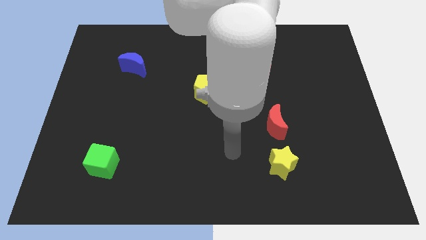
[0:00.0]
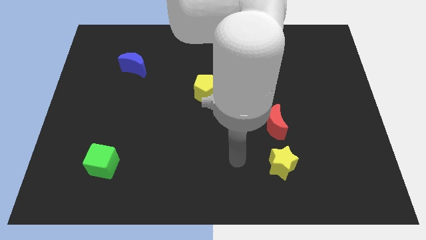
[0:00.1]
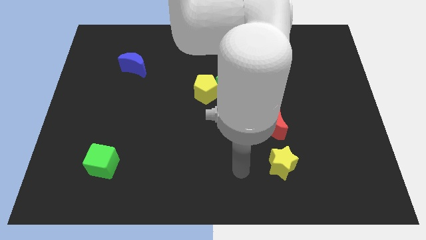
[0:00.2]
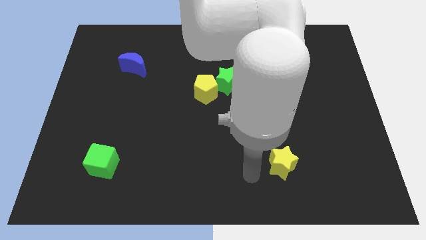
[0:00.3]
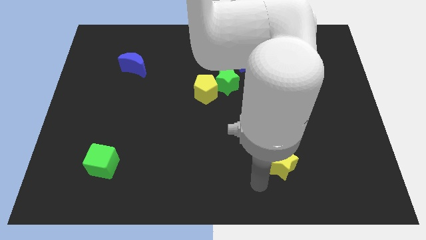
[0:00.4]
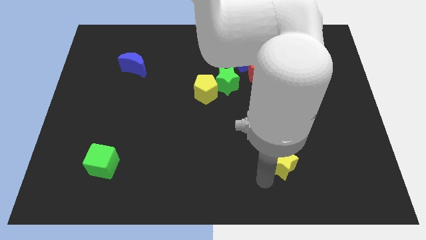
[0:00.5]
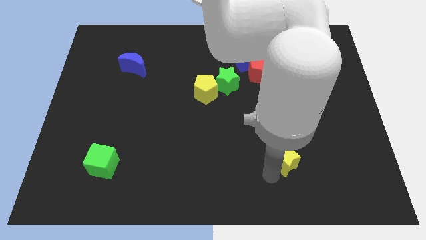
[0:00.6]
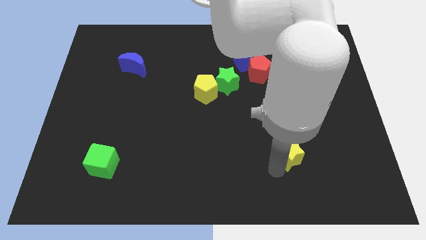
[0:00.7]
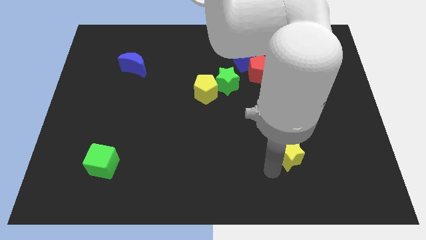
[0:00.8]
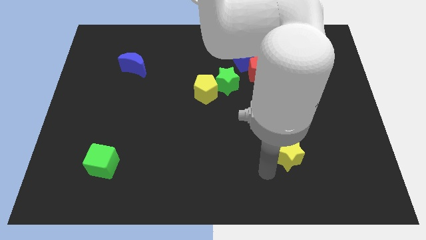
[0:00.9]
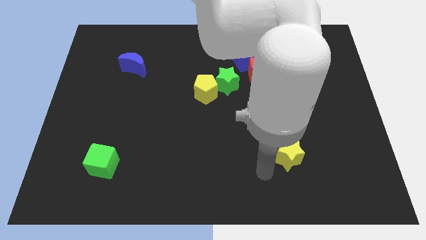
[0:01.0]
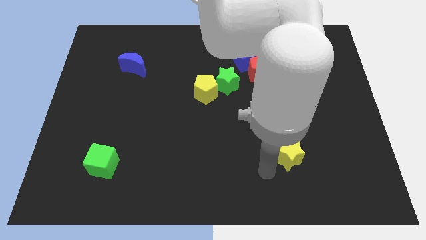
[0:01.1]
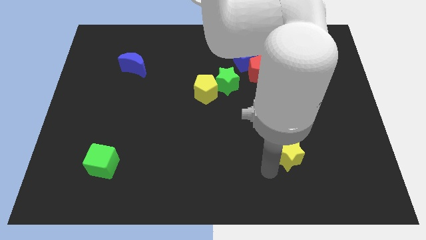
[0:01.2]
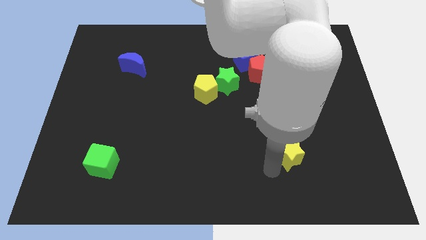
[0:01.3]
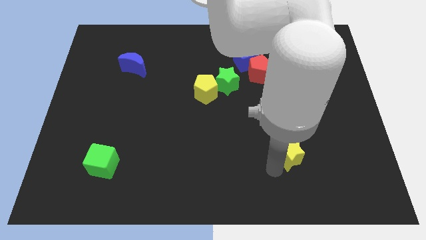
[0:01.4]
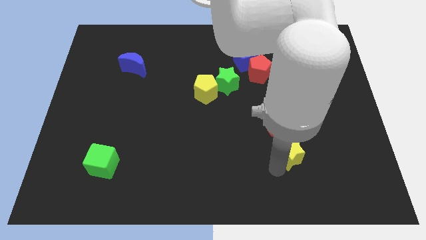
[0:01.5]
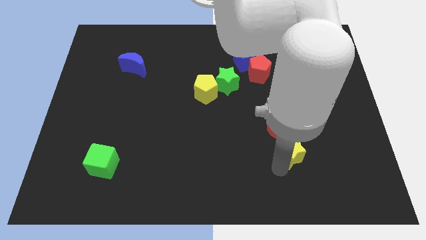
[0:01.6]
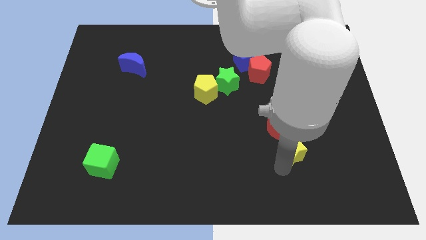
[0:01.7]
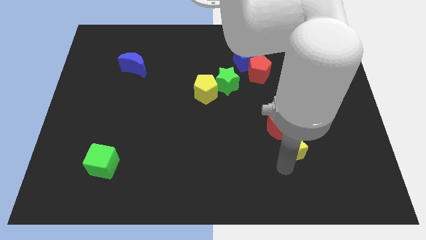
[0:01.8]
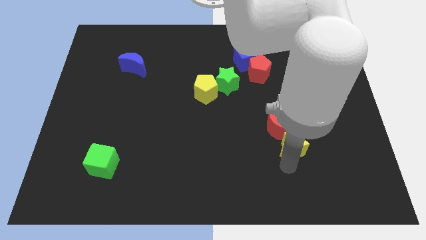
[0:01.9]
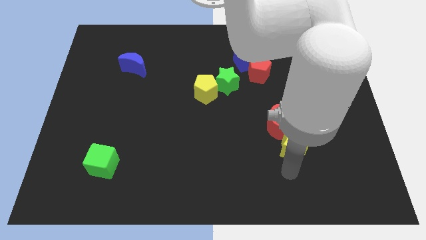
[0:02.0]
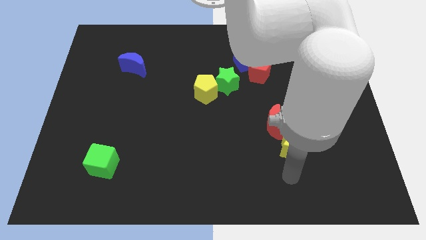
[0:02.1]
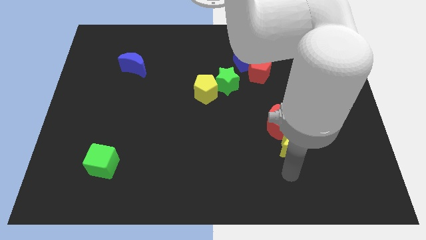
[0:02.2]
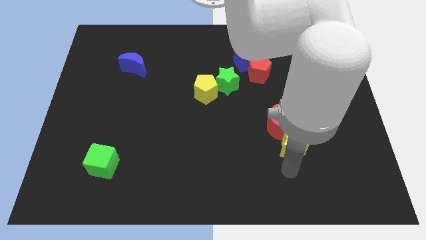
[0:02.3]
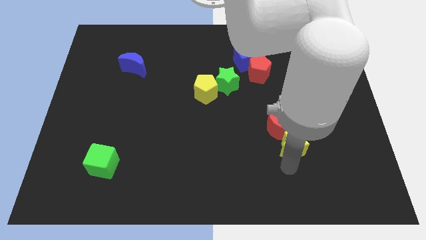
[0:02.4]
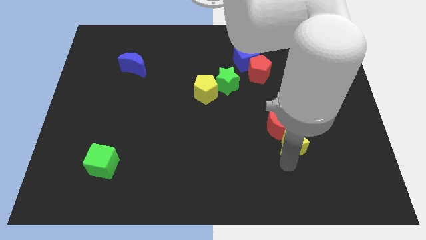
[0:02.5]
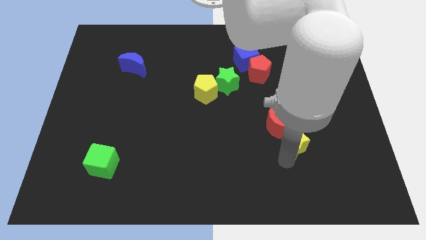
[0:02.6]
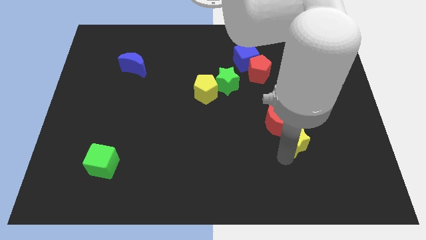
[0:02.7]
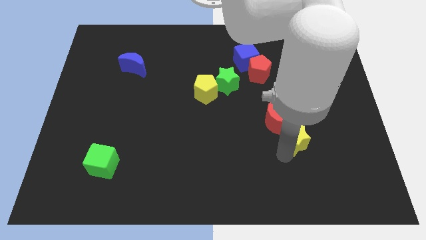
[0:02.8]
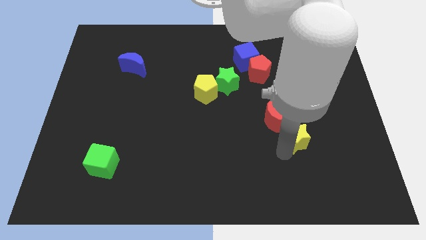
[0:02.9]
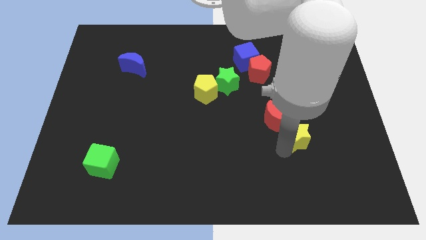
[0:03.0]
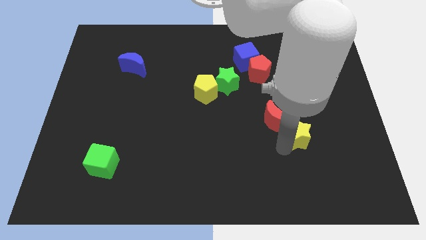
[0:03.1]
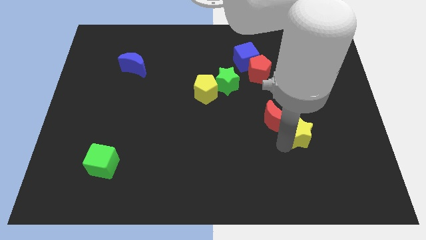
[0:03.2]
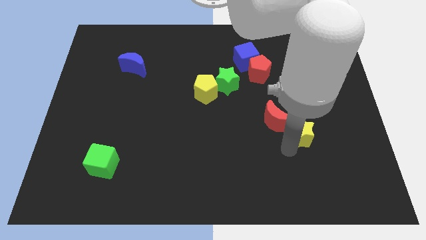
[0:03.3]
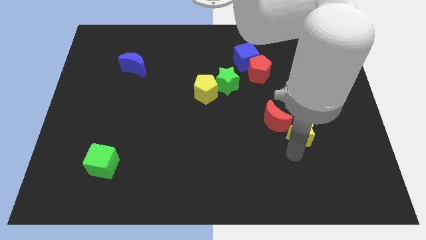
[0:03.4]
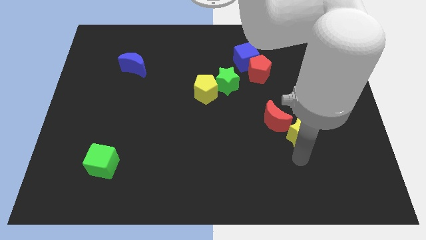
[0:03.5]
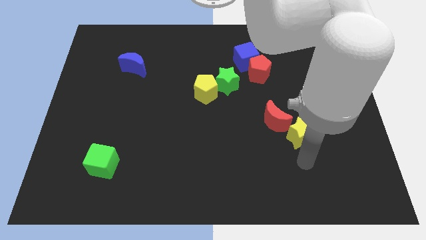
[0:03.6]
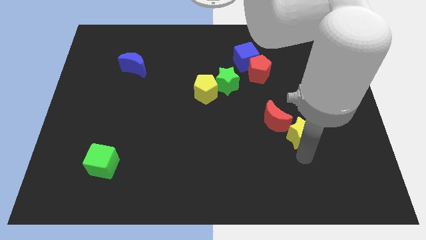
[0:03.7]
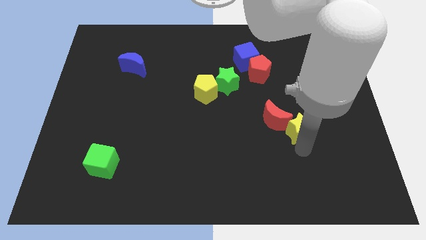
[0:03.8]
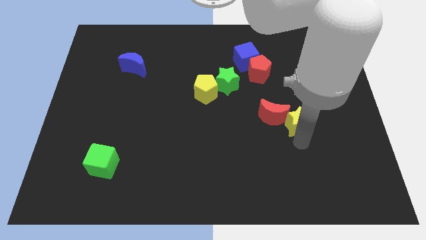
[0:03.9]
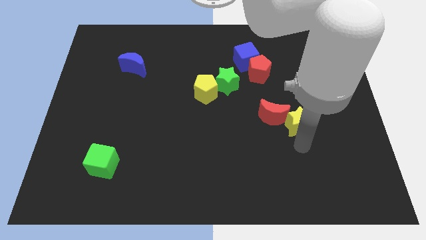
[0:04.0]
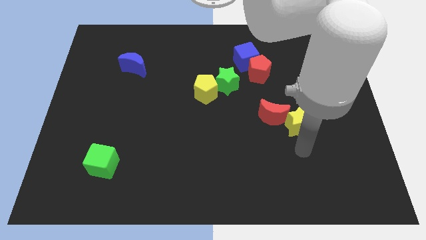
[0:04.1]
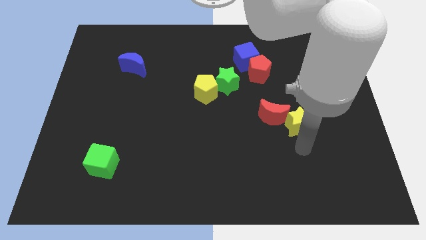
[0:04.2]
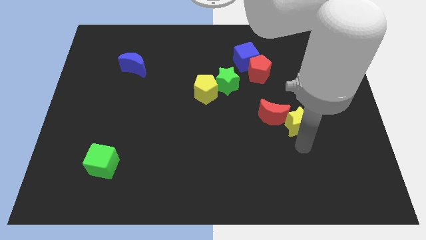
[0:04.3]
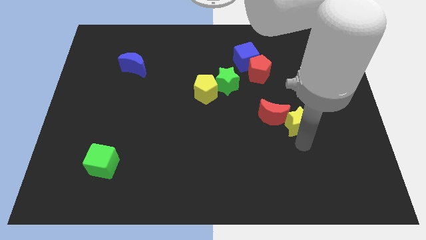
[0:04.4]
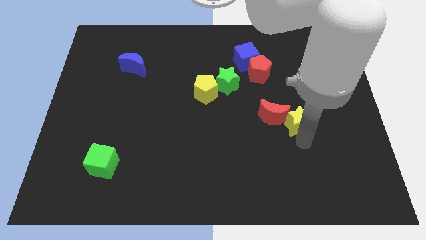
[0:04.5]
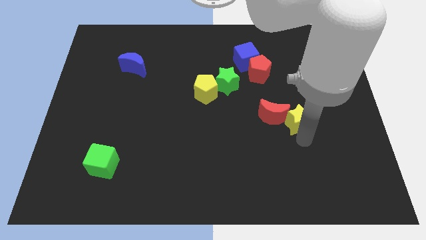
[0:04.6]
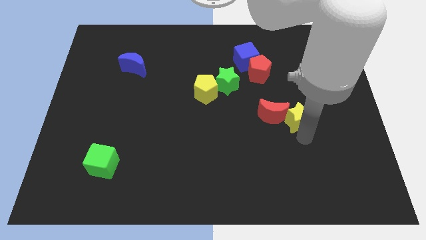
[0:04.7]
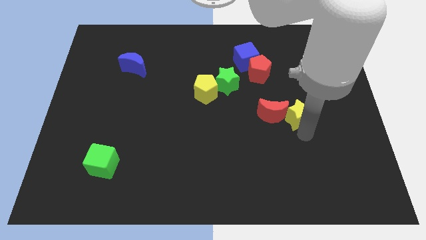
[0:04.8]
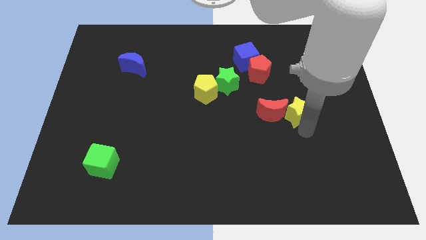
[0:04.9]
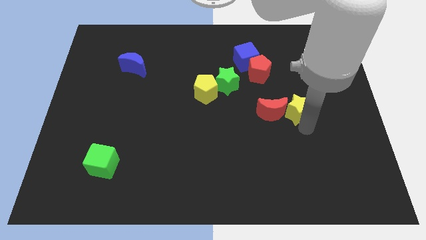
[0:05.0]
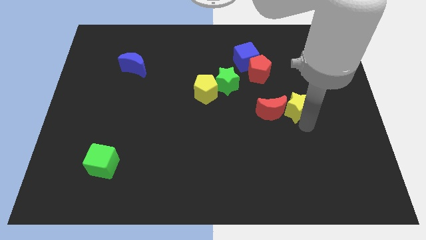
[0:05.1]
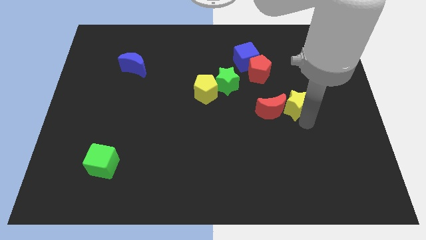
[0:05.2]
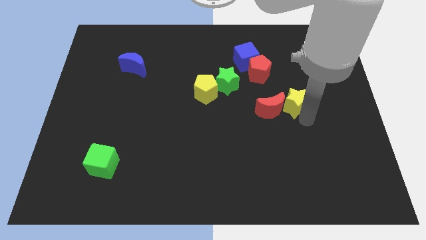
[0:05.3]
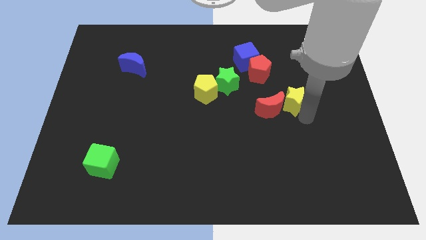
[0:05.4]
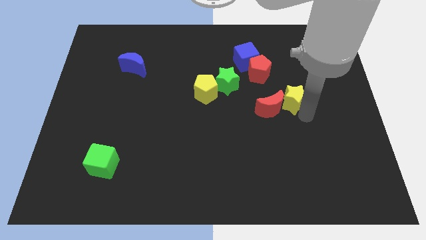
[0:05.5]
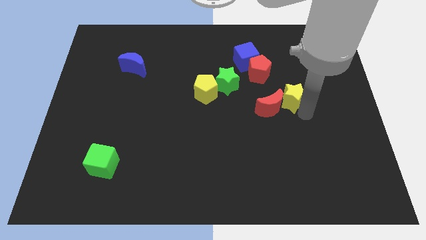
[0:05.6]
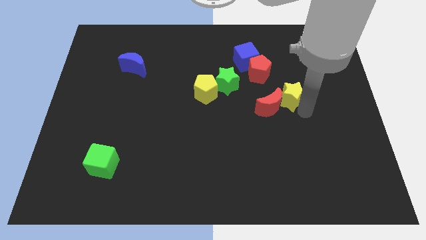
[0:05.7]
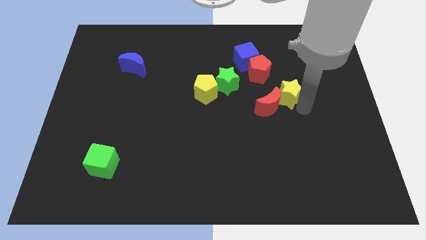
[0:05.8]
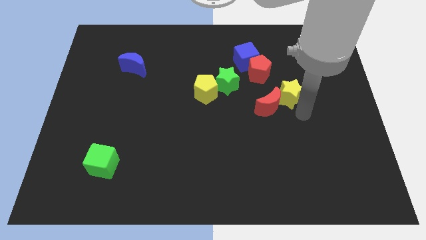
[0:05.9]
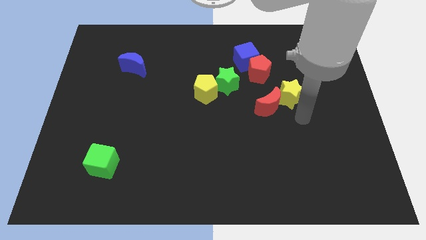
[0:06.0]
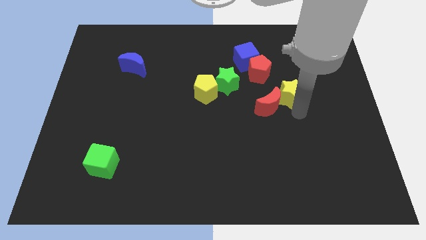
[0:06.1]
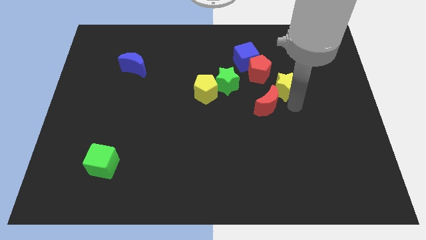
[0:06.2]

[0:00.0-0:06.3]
slide the yellow star up

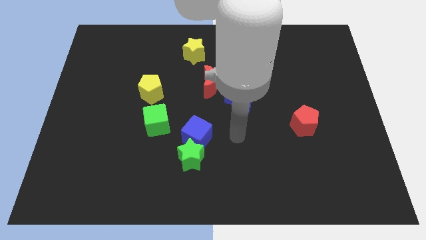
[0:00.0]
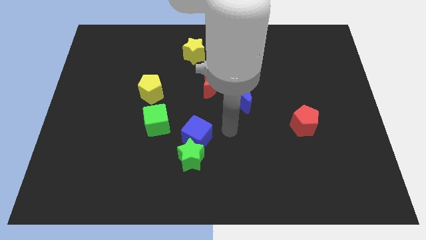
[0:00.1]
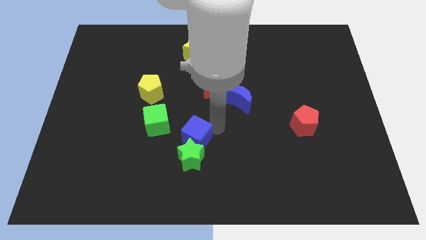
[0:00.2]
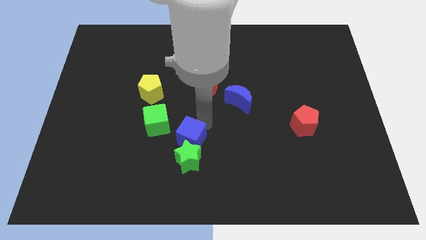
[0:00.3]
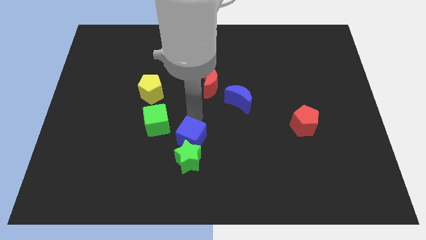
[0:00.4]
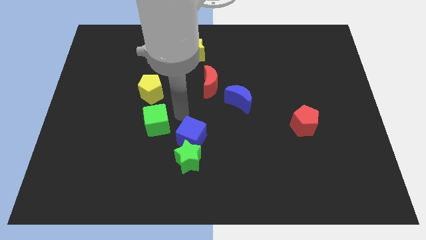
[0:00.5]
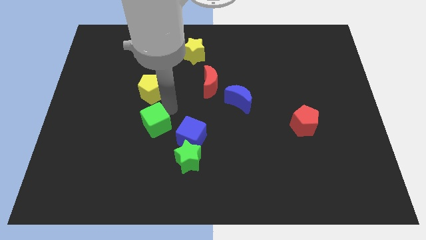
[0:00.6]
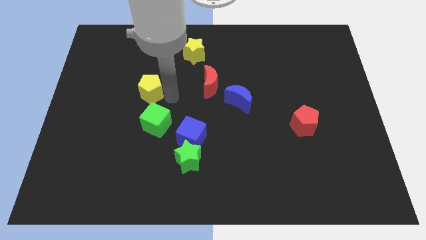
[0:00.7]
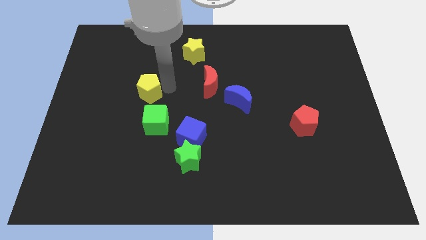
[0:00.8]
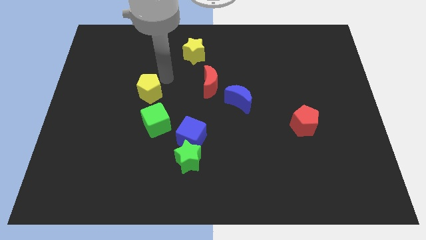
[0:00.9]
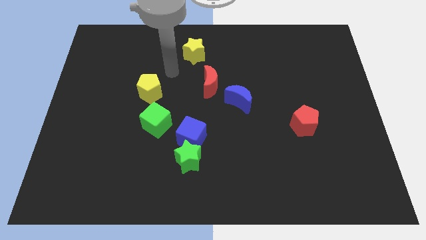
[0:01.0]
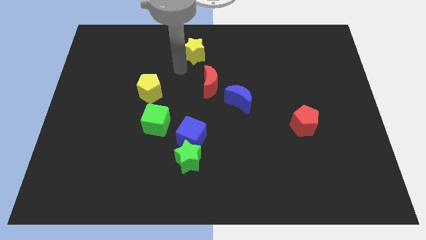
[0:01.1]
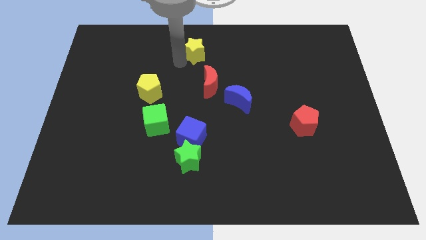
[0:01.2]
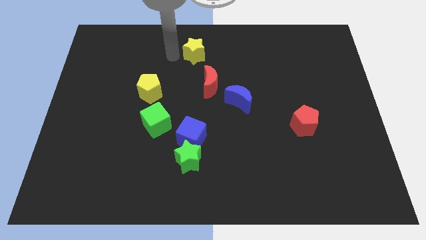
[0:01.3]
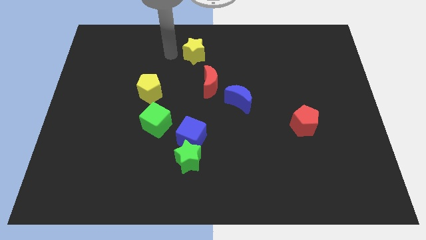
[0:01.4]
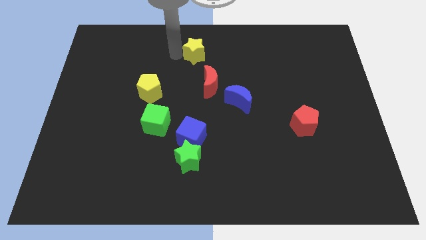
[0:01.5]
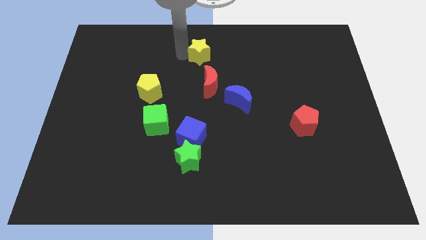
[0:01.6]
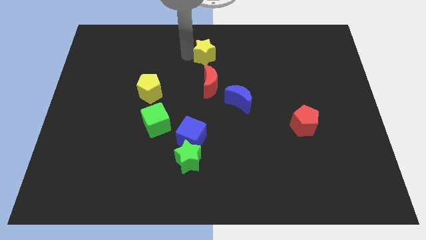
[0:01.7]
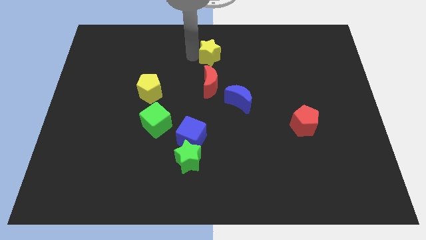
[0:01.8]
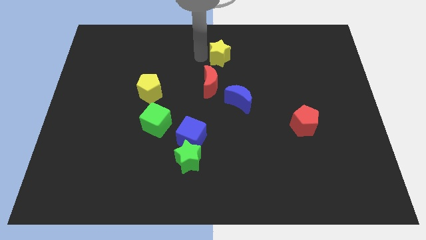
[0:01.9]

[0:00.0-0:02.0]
push the yellow star a bit right
